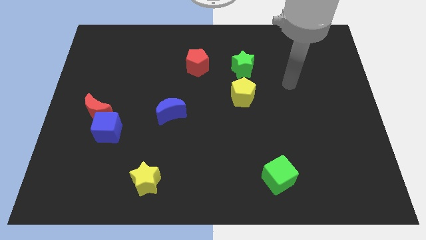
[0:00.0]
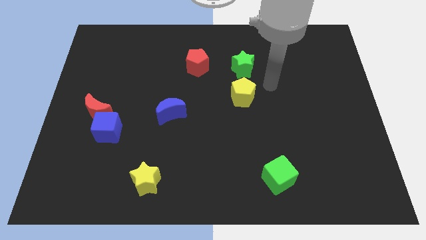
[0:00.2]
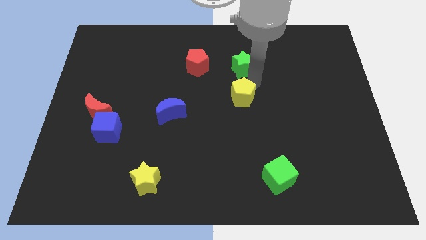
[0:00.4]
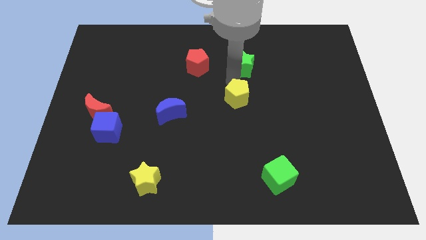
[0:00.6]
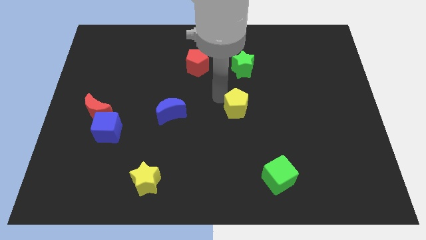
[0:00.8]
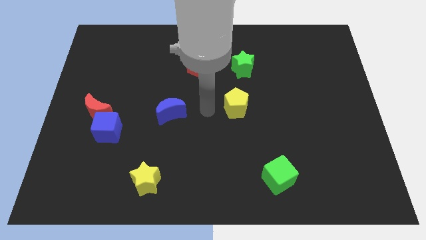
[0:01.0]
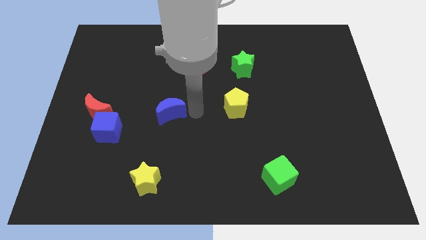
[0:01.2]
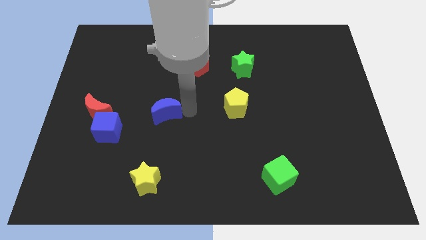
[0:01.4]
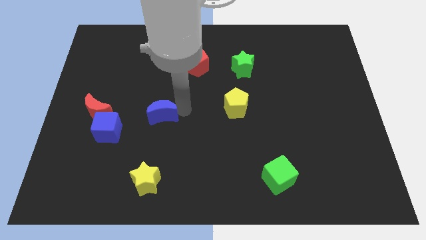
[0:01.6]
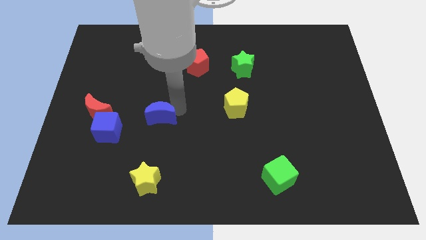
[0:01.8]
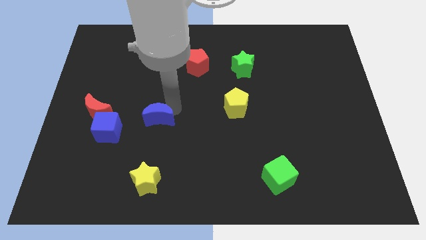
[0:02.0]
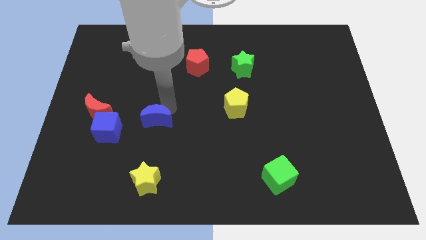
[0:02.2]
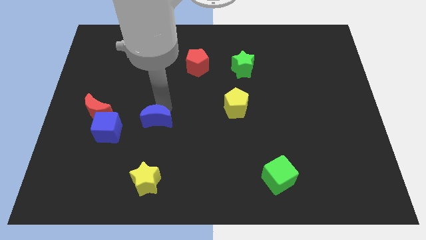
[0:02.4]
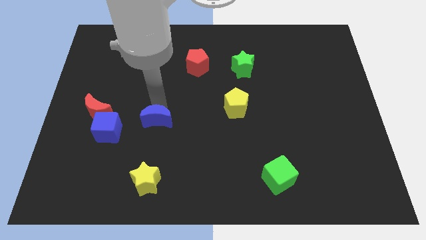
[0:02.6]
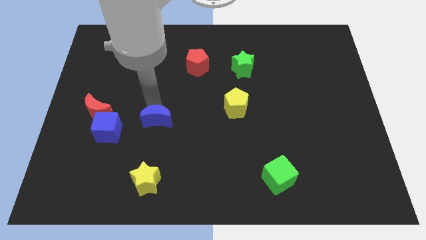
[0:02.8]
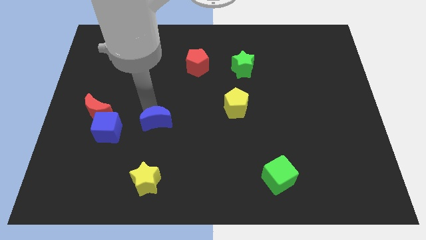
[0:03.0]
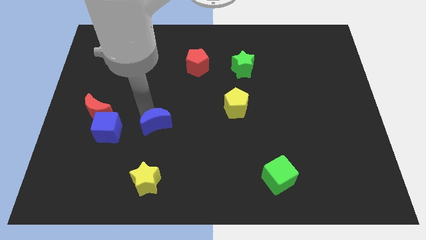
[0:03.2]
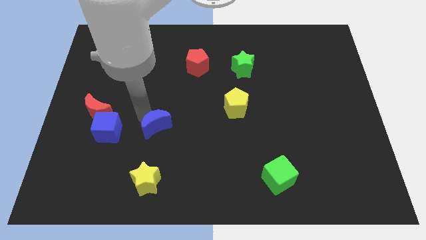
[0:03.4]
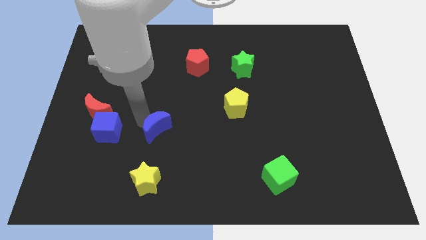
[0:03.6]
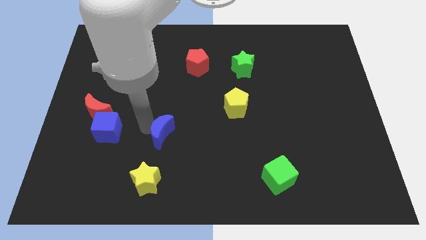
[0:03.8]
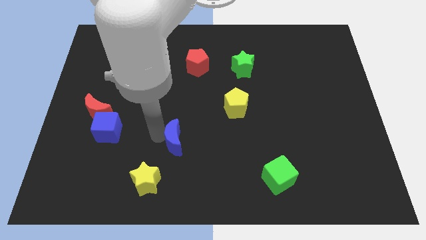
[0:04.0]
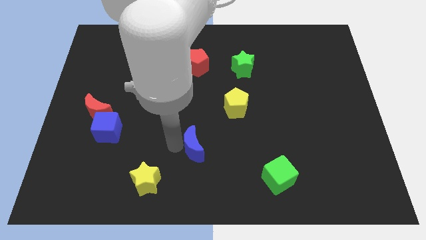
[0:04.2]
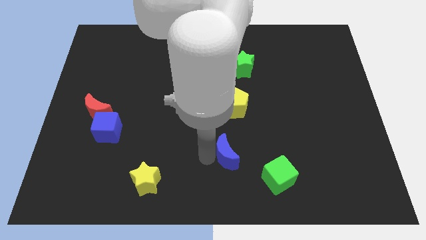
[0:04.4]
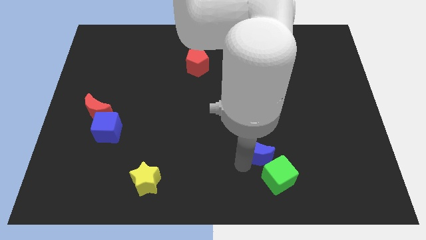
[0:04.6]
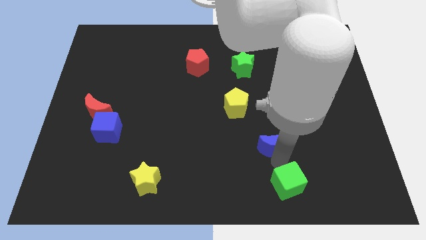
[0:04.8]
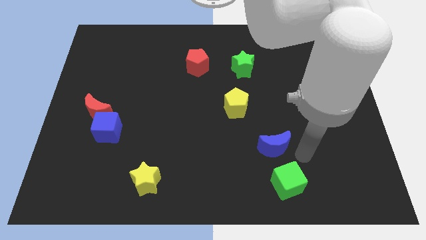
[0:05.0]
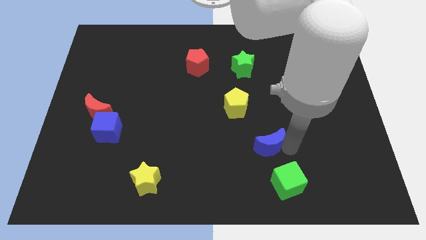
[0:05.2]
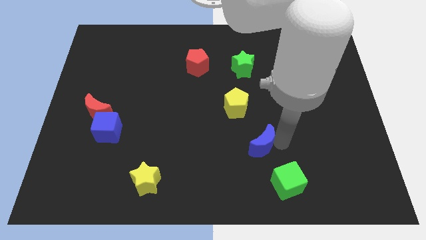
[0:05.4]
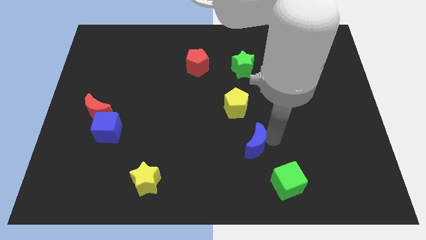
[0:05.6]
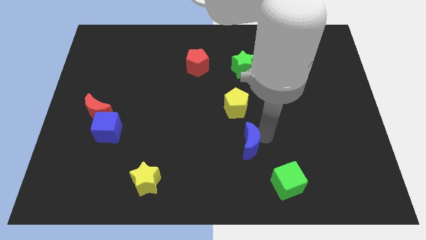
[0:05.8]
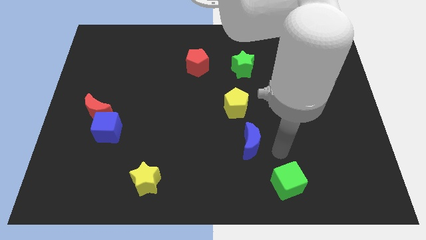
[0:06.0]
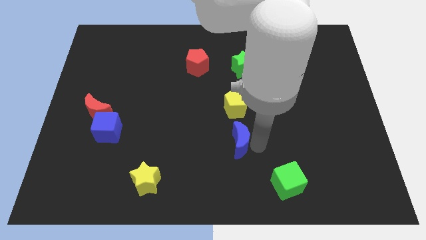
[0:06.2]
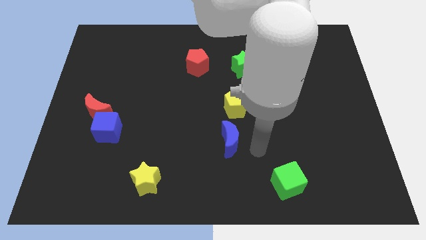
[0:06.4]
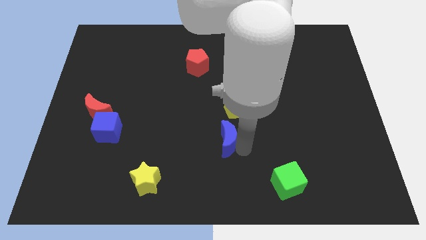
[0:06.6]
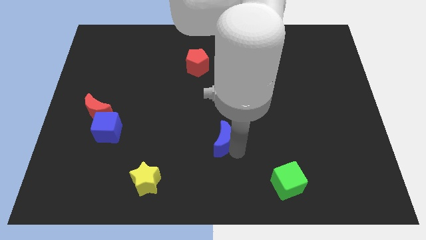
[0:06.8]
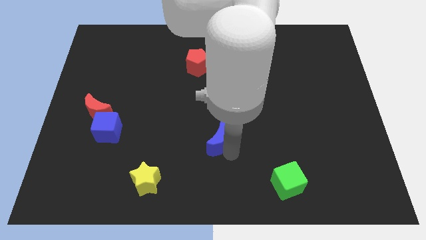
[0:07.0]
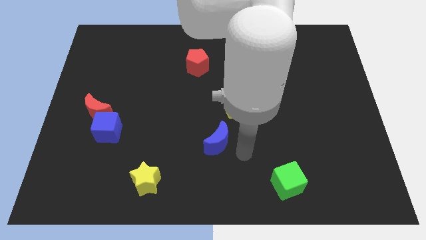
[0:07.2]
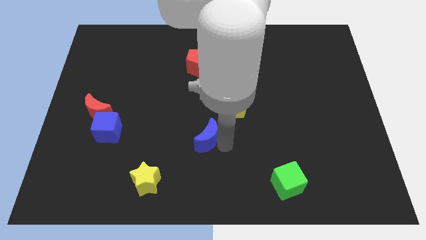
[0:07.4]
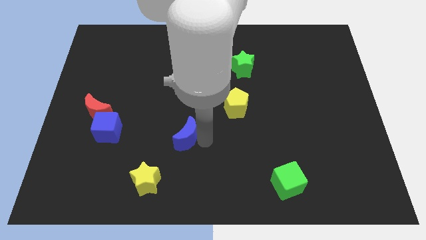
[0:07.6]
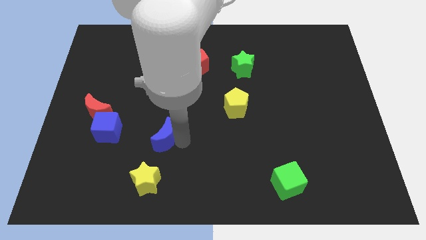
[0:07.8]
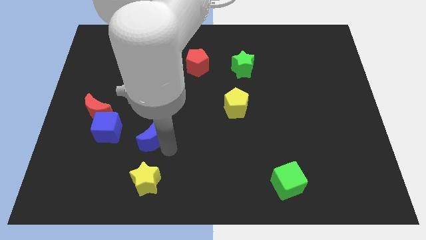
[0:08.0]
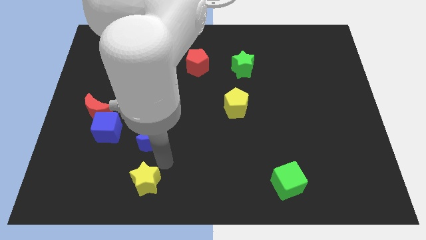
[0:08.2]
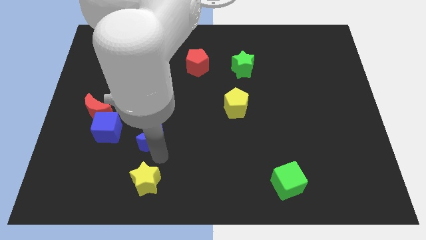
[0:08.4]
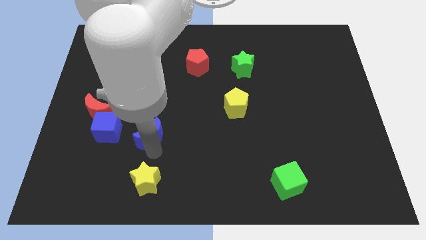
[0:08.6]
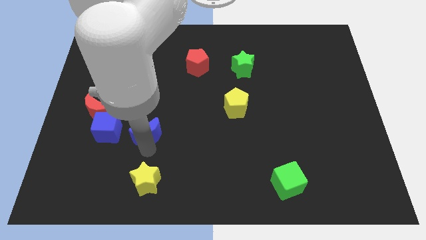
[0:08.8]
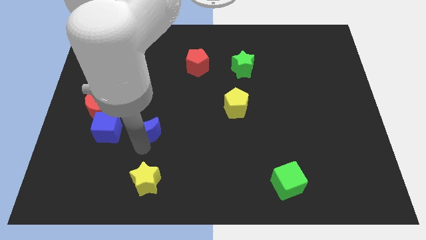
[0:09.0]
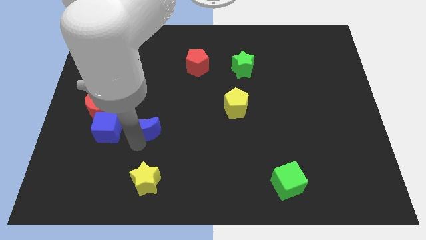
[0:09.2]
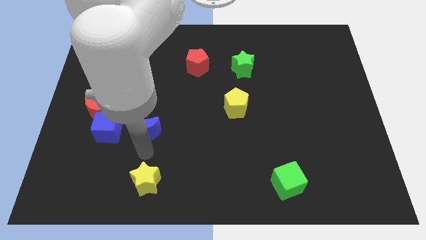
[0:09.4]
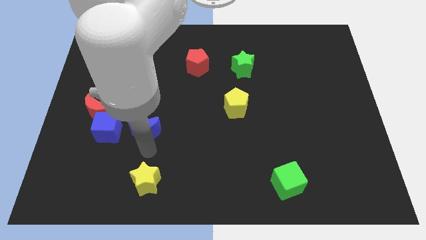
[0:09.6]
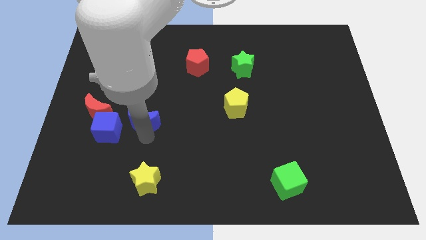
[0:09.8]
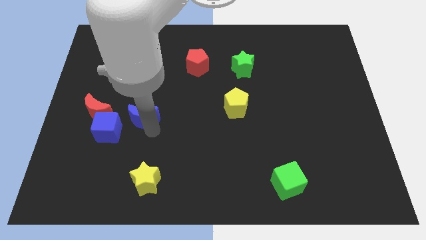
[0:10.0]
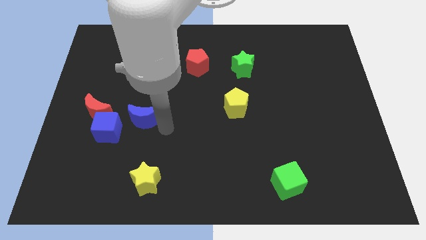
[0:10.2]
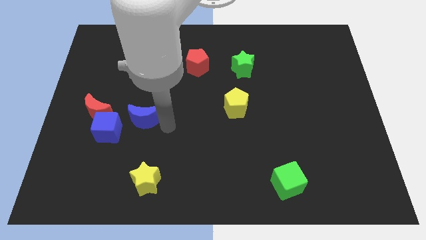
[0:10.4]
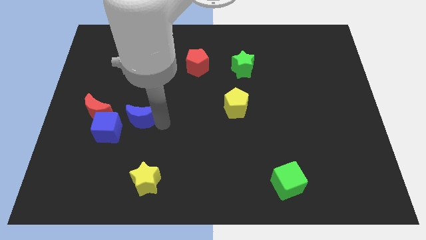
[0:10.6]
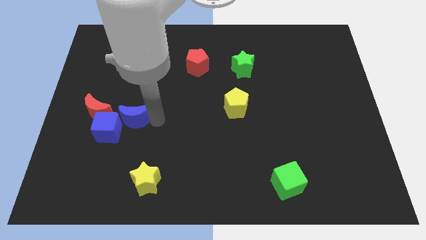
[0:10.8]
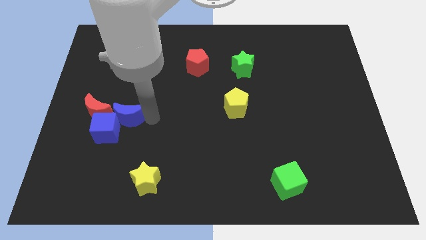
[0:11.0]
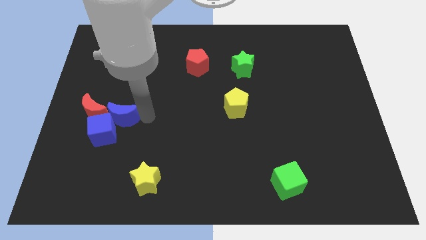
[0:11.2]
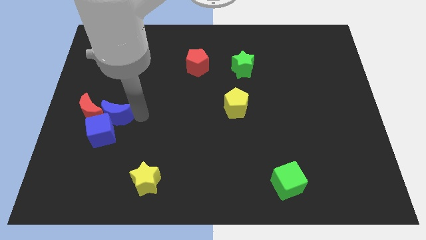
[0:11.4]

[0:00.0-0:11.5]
slide the blue moon towards the red moon

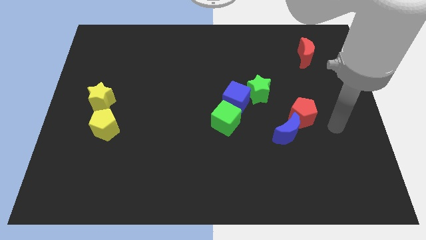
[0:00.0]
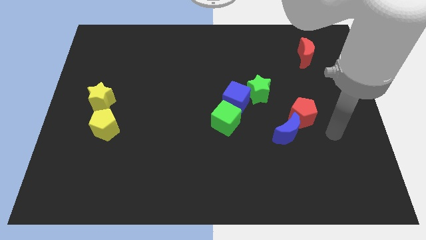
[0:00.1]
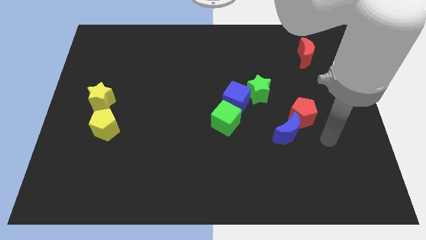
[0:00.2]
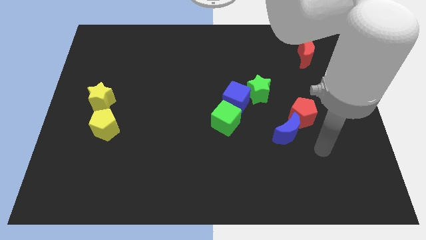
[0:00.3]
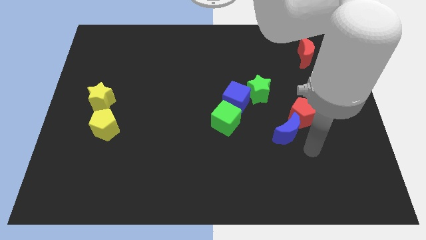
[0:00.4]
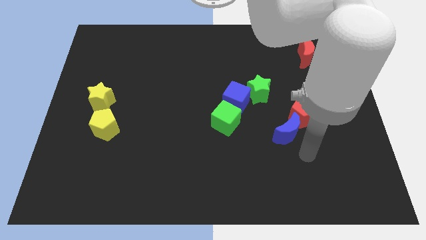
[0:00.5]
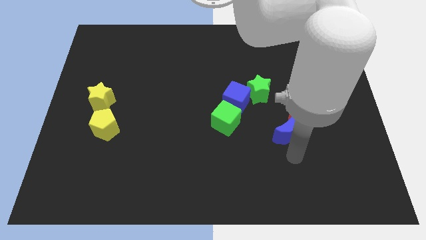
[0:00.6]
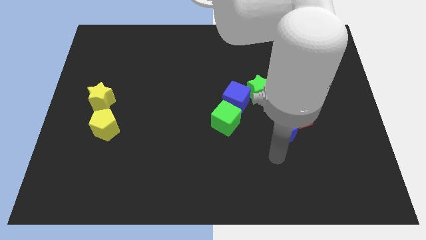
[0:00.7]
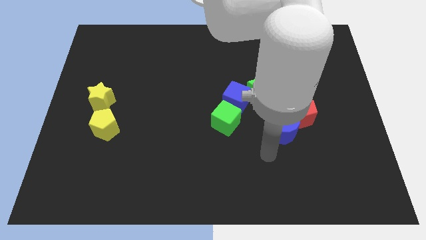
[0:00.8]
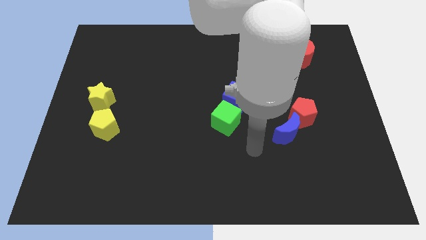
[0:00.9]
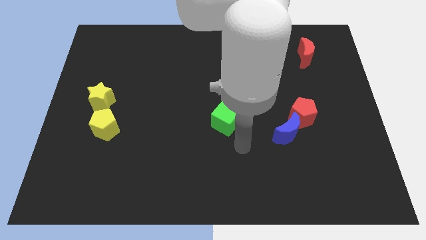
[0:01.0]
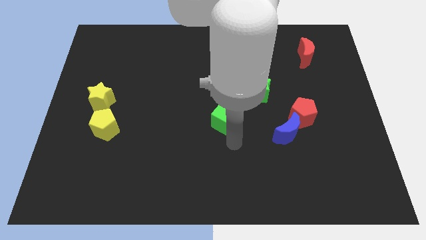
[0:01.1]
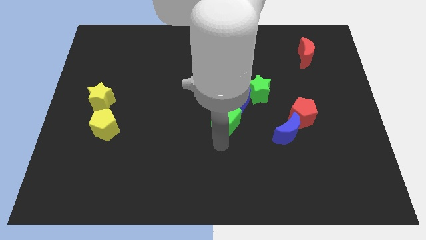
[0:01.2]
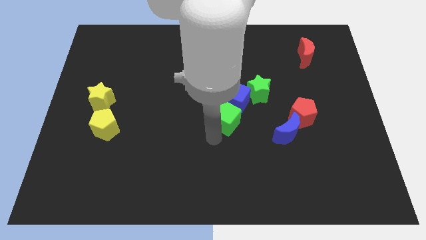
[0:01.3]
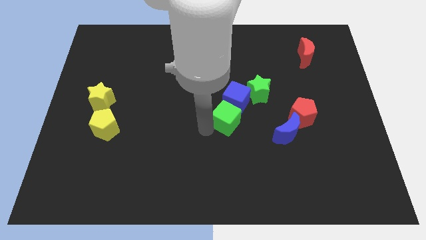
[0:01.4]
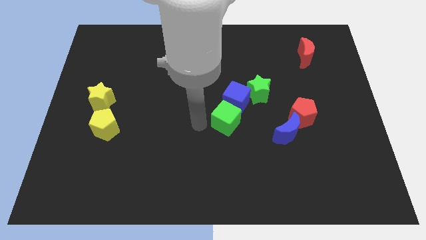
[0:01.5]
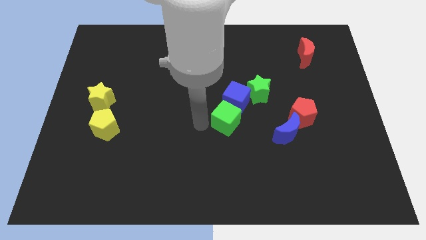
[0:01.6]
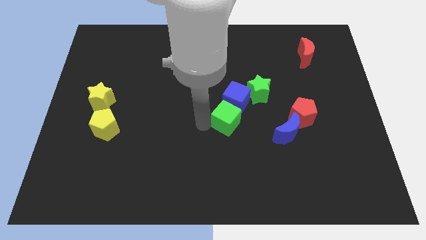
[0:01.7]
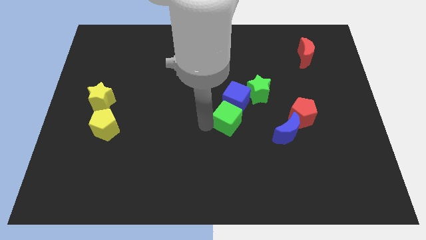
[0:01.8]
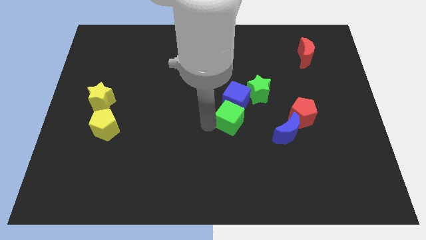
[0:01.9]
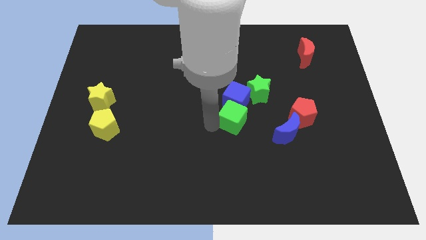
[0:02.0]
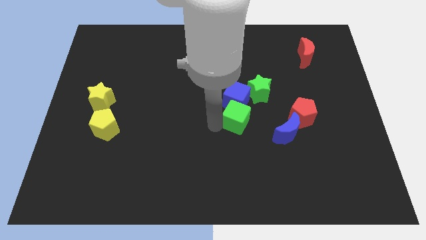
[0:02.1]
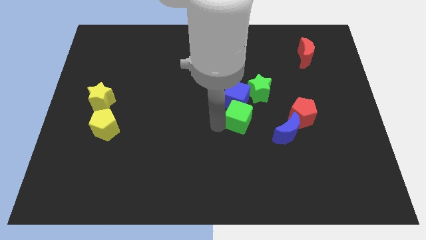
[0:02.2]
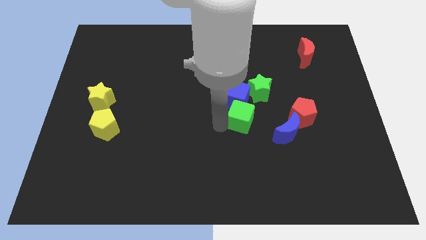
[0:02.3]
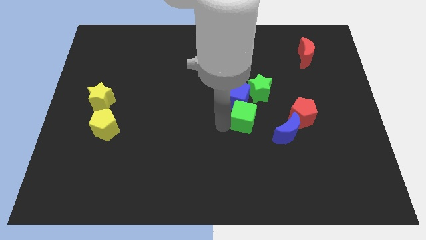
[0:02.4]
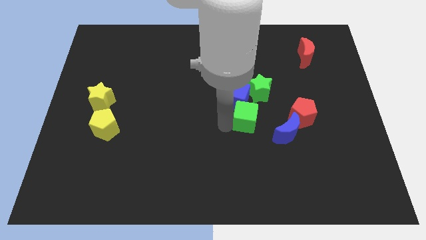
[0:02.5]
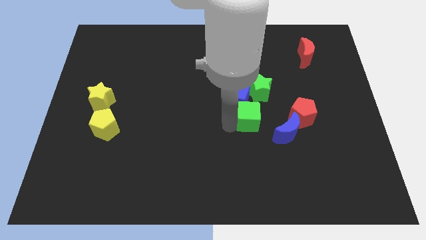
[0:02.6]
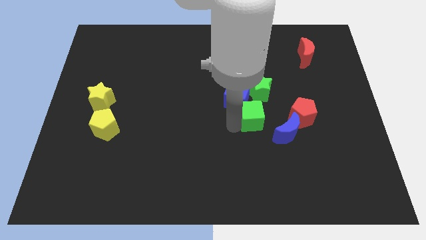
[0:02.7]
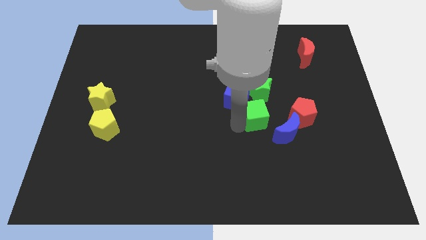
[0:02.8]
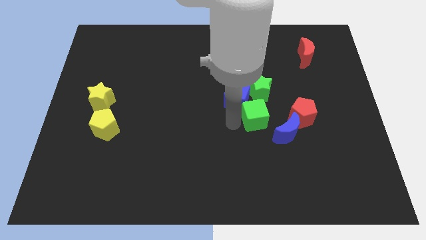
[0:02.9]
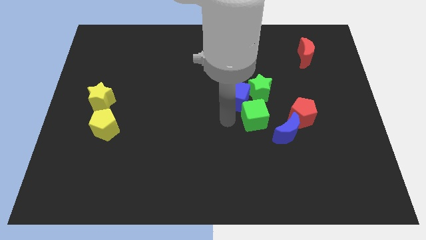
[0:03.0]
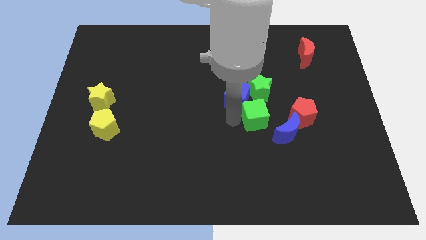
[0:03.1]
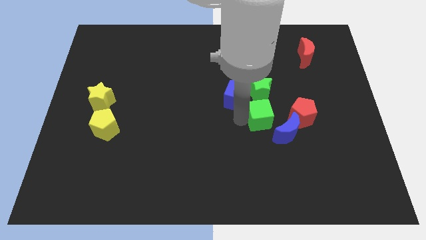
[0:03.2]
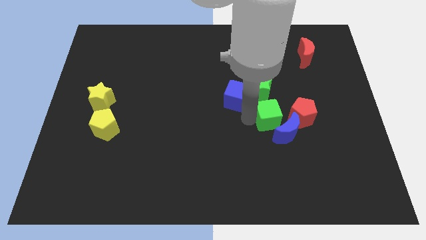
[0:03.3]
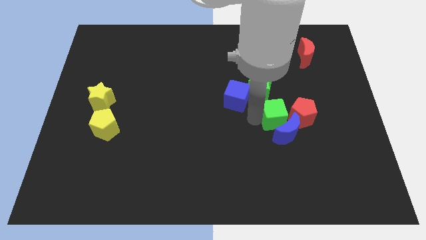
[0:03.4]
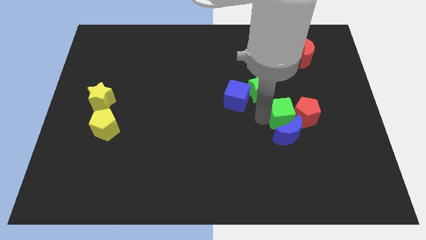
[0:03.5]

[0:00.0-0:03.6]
move the green cube to the red pentagon
